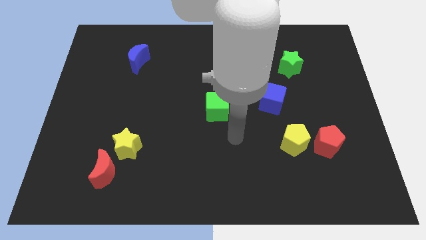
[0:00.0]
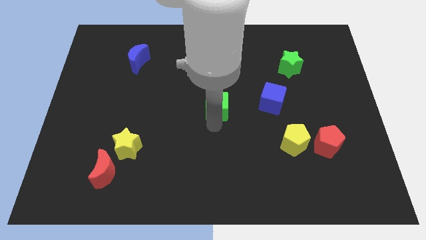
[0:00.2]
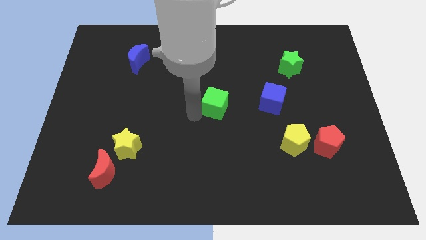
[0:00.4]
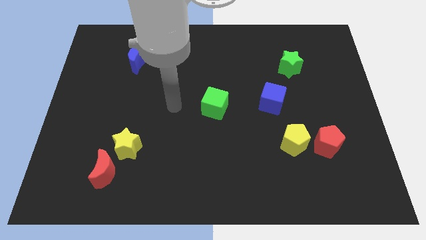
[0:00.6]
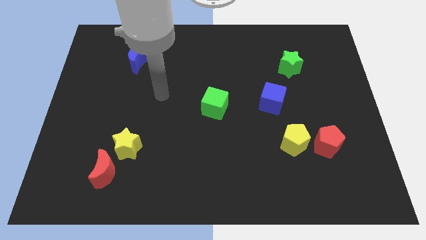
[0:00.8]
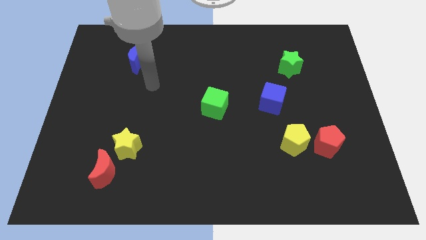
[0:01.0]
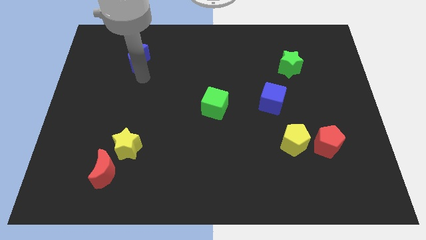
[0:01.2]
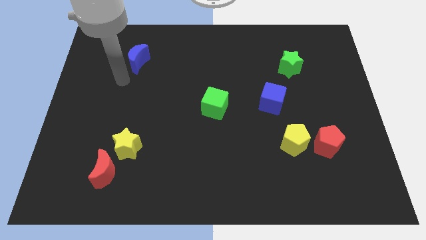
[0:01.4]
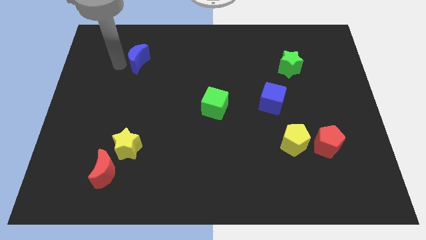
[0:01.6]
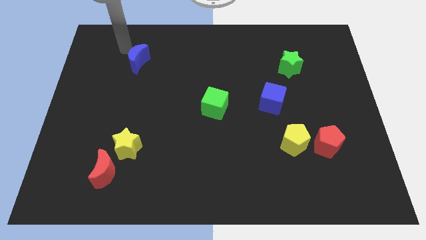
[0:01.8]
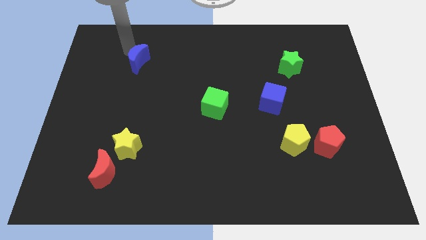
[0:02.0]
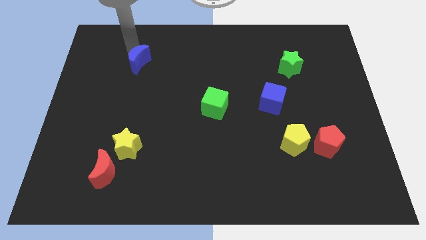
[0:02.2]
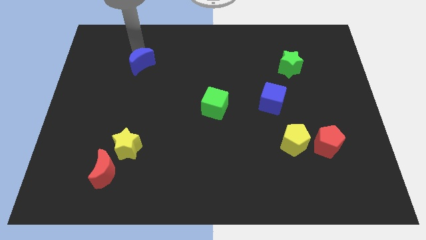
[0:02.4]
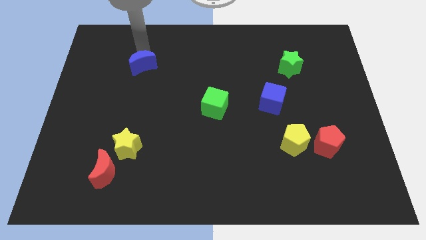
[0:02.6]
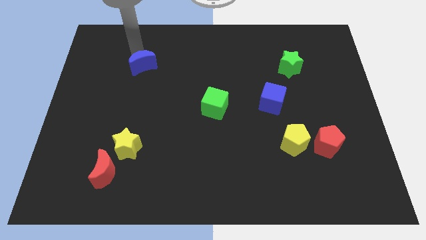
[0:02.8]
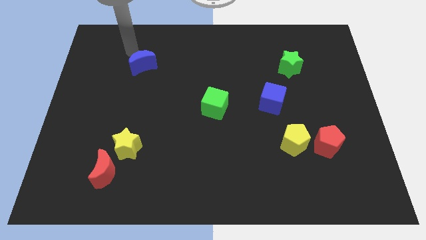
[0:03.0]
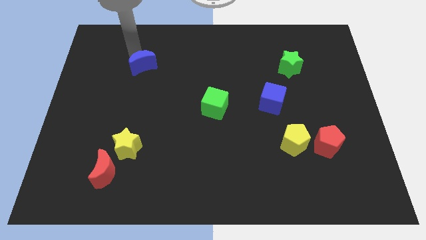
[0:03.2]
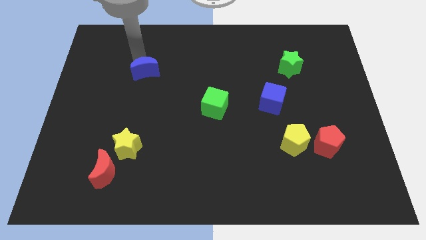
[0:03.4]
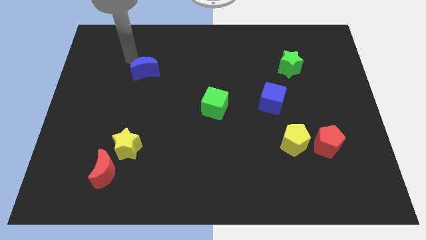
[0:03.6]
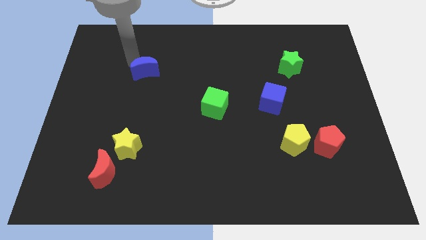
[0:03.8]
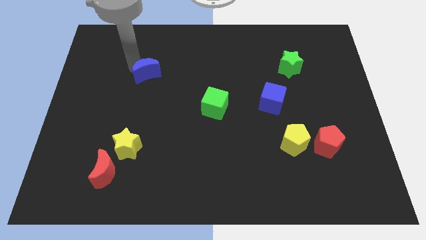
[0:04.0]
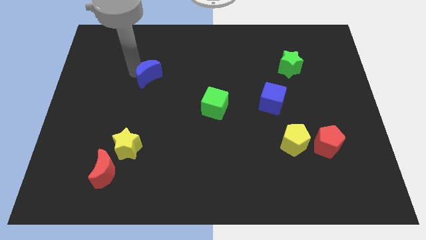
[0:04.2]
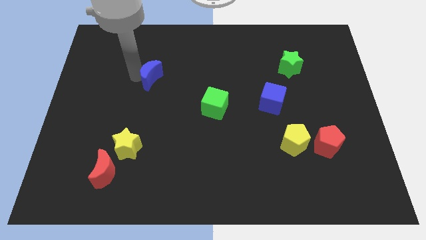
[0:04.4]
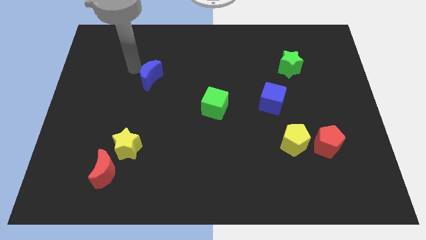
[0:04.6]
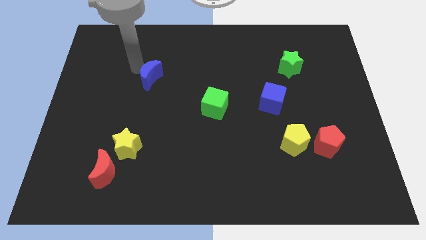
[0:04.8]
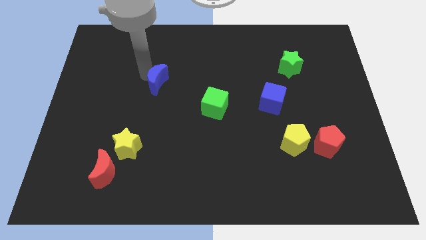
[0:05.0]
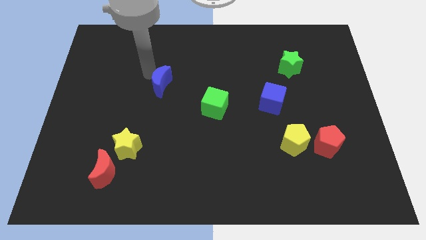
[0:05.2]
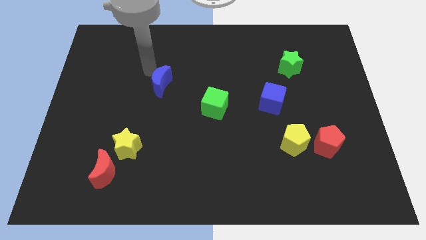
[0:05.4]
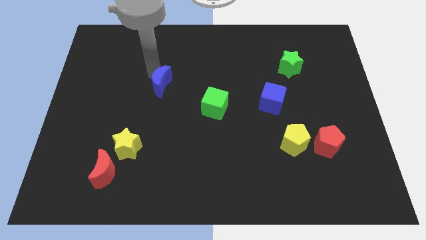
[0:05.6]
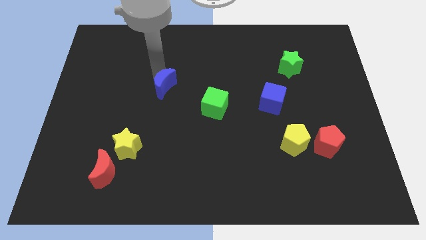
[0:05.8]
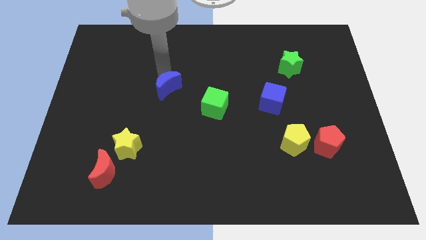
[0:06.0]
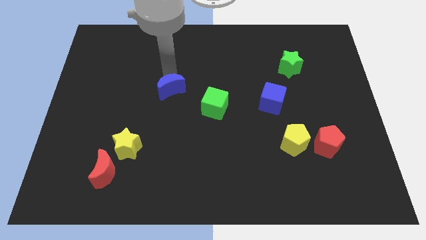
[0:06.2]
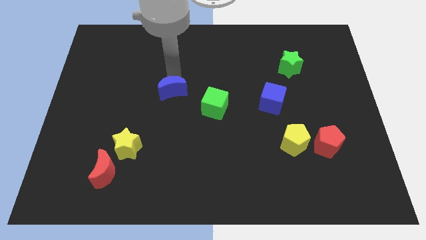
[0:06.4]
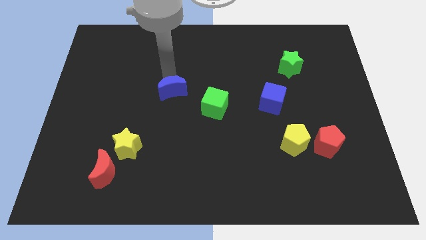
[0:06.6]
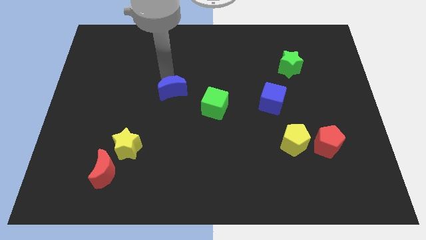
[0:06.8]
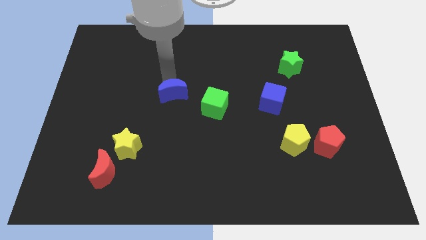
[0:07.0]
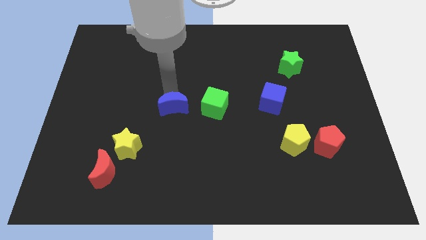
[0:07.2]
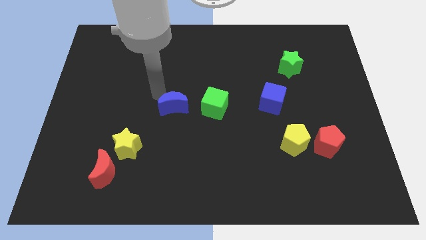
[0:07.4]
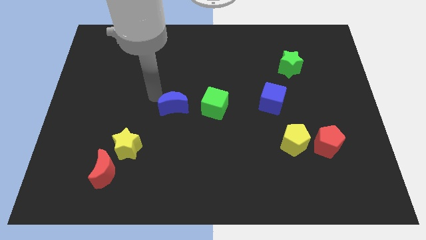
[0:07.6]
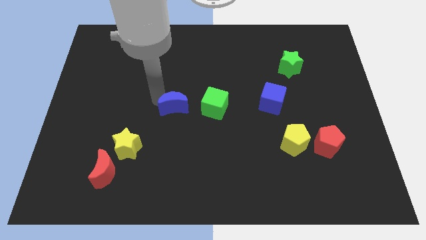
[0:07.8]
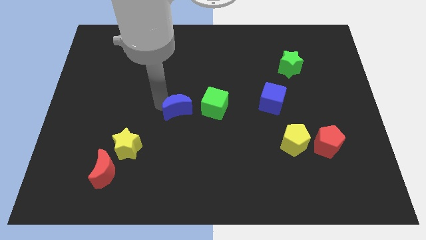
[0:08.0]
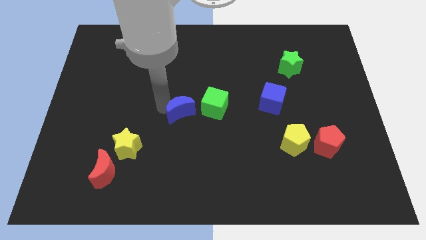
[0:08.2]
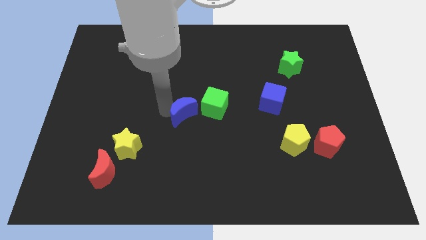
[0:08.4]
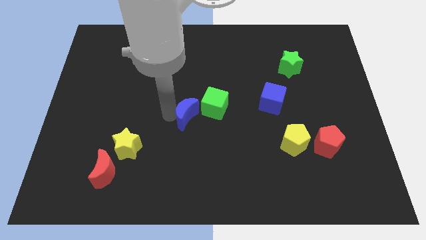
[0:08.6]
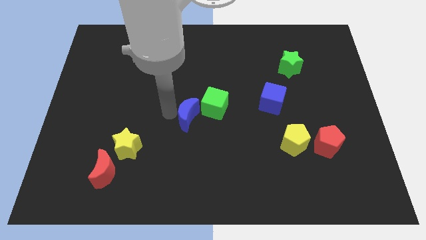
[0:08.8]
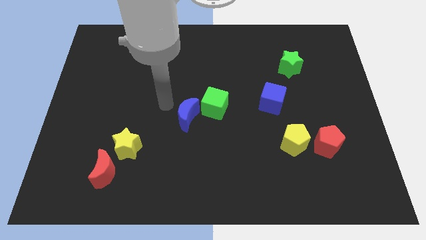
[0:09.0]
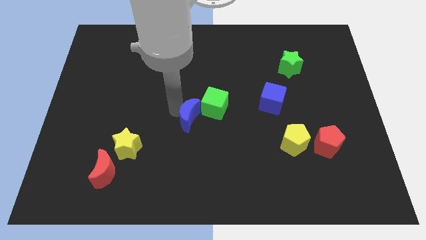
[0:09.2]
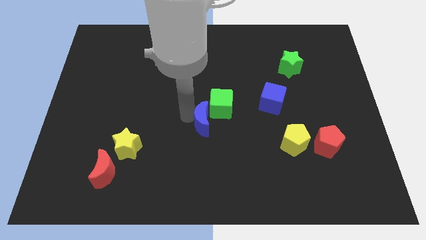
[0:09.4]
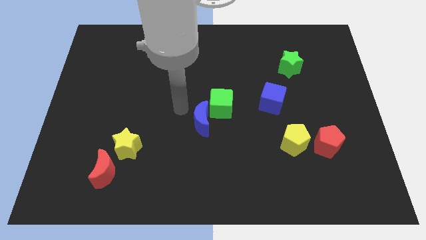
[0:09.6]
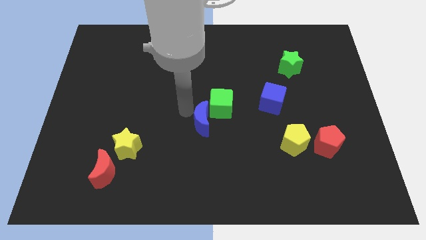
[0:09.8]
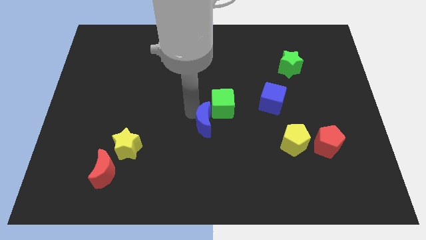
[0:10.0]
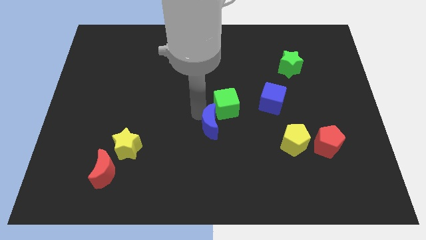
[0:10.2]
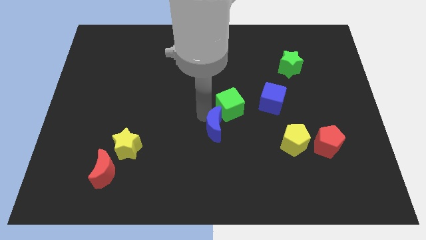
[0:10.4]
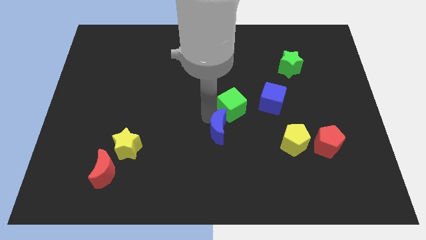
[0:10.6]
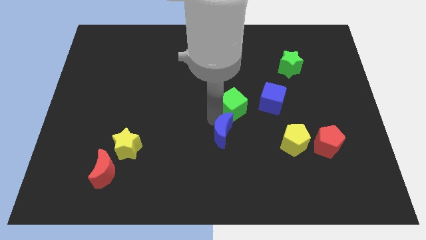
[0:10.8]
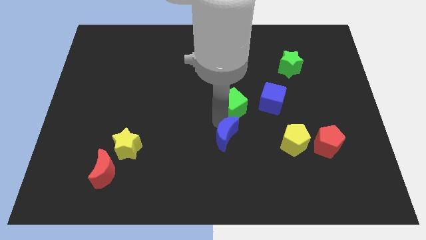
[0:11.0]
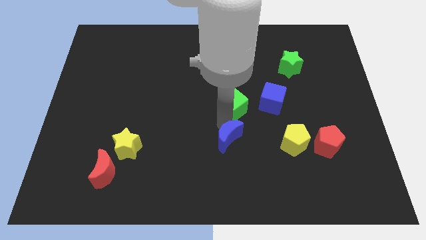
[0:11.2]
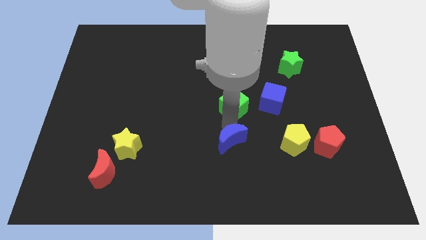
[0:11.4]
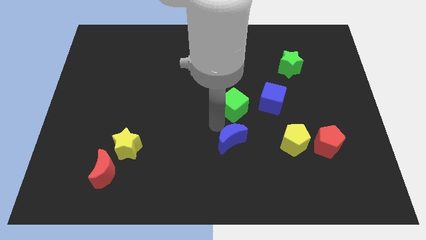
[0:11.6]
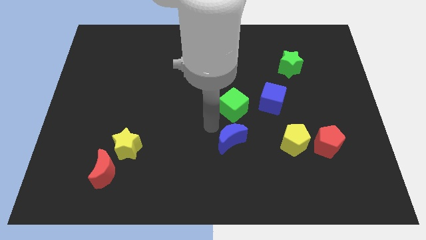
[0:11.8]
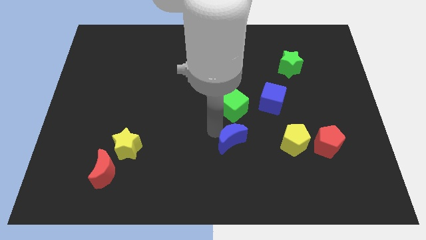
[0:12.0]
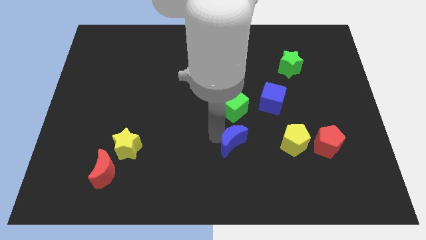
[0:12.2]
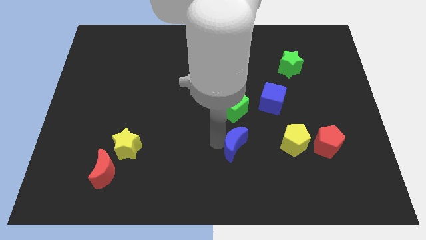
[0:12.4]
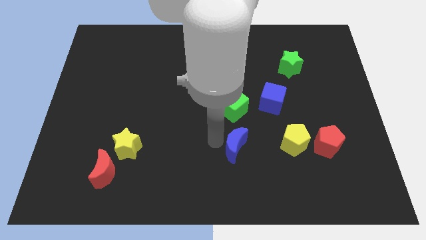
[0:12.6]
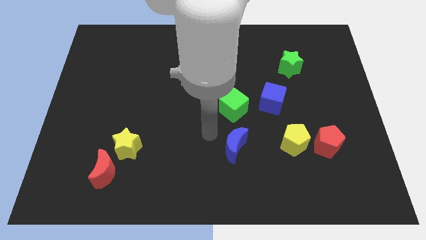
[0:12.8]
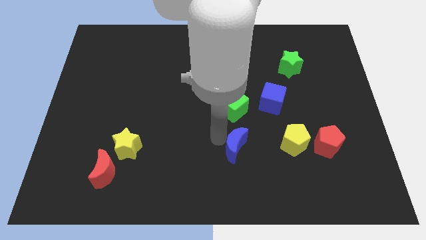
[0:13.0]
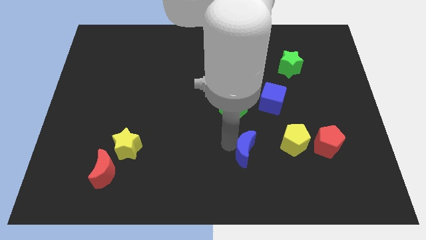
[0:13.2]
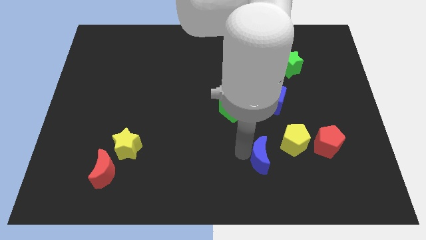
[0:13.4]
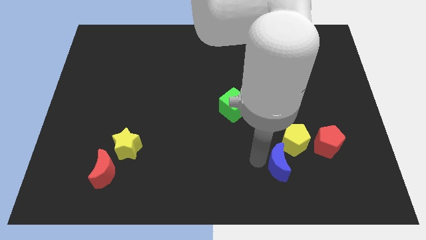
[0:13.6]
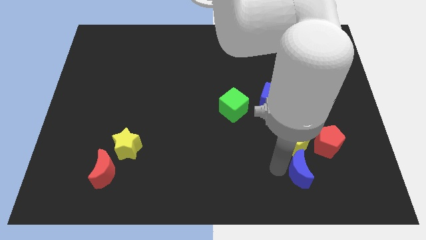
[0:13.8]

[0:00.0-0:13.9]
put the blue moon to the bottom right of the yellow pentagon

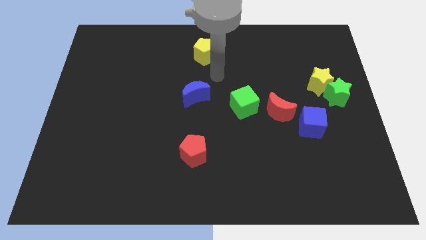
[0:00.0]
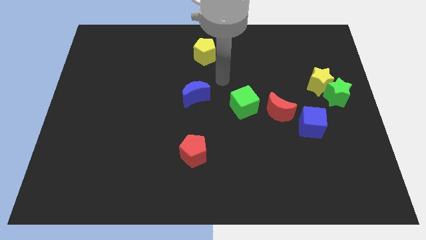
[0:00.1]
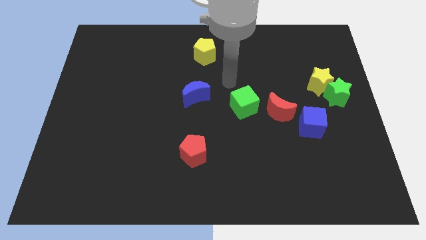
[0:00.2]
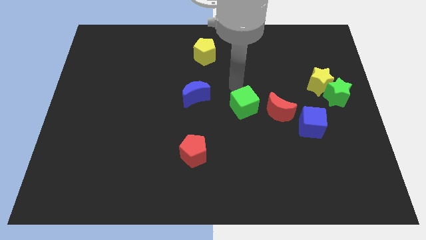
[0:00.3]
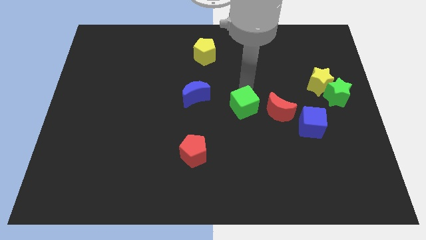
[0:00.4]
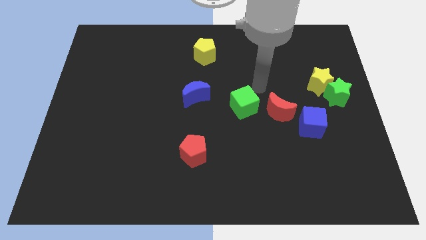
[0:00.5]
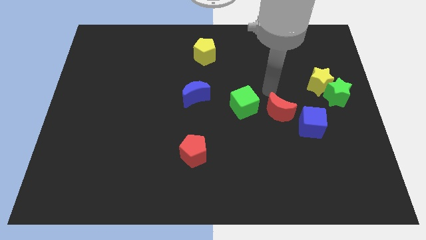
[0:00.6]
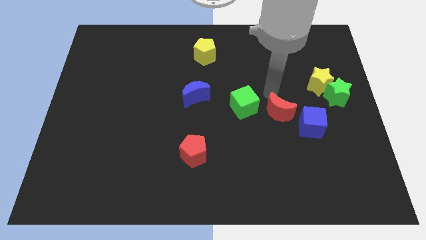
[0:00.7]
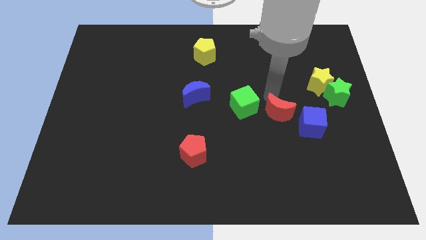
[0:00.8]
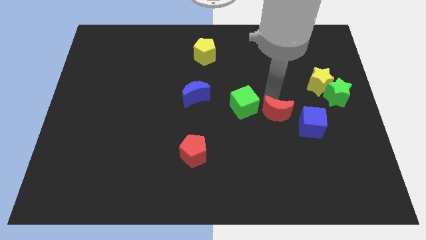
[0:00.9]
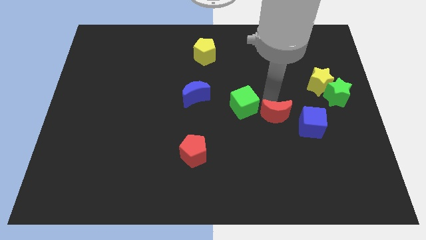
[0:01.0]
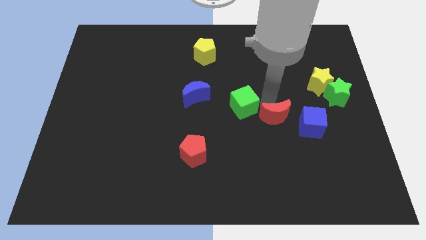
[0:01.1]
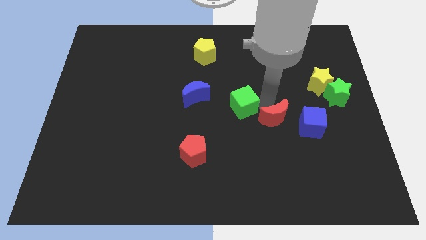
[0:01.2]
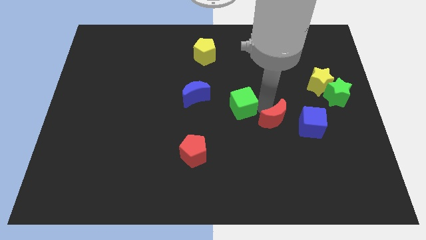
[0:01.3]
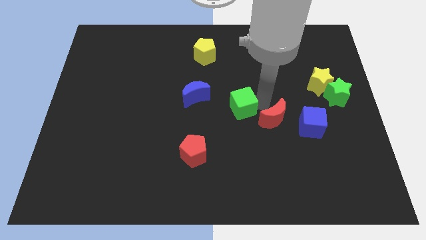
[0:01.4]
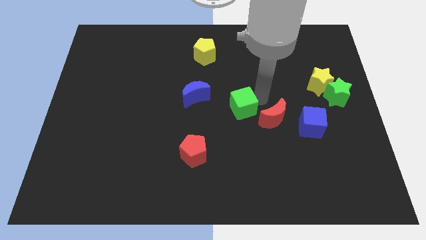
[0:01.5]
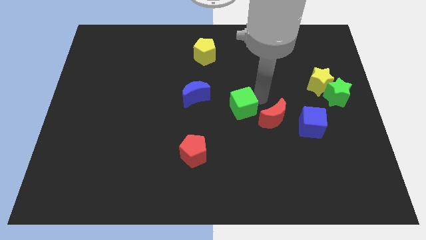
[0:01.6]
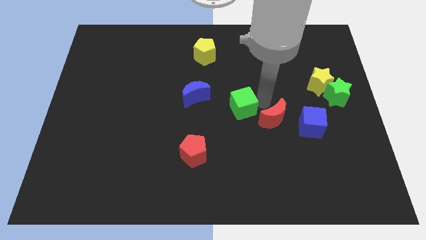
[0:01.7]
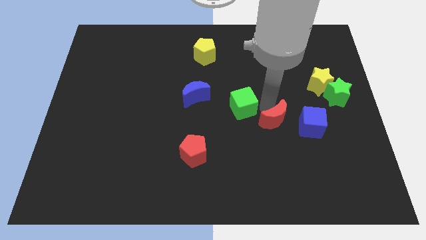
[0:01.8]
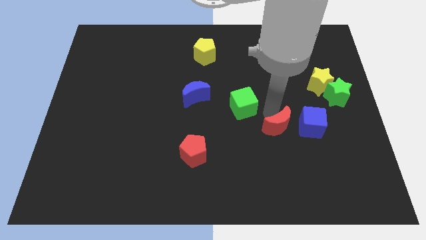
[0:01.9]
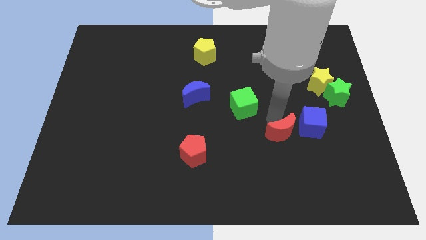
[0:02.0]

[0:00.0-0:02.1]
move the red moon diagonally down and to the left of the blue cube
